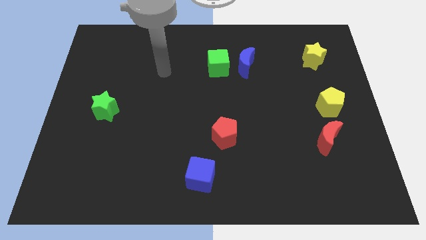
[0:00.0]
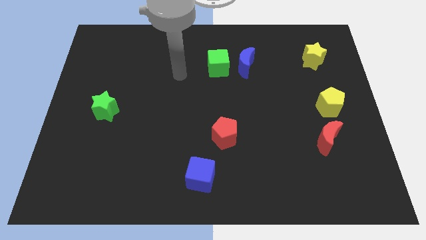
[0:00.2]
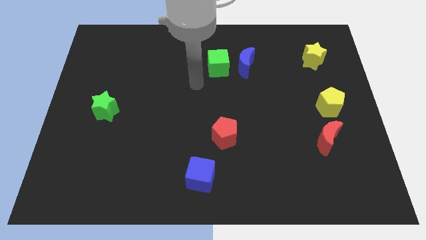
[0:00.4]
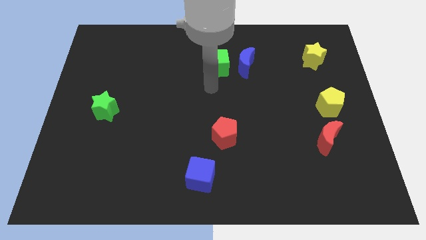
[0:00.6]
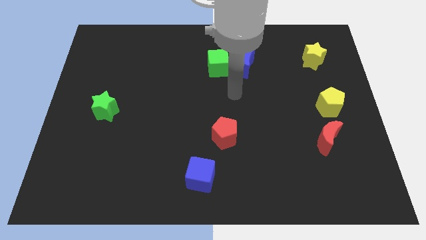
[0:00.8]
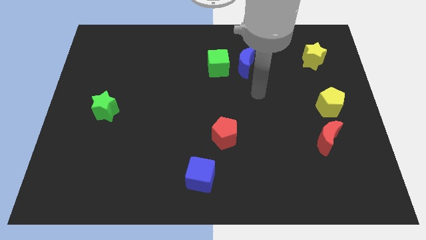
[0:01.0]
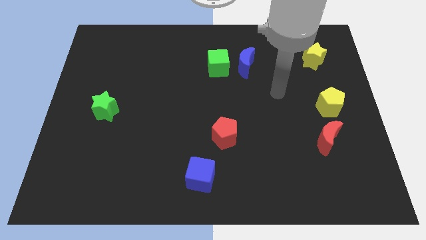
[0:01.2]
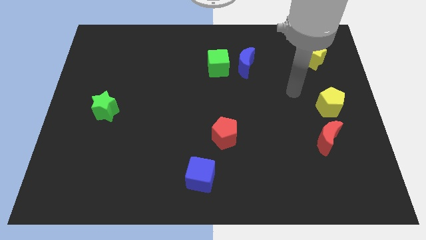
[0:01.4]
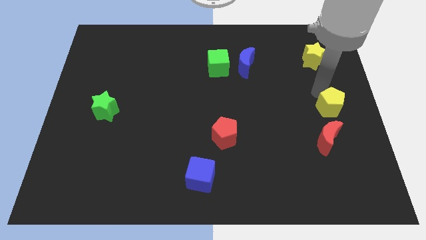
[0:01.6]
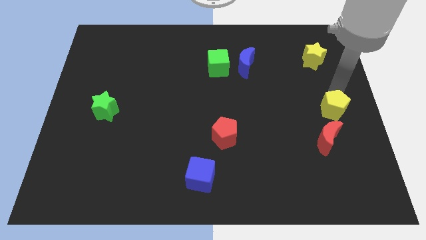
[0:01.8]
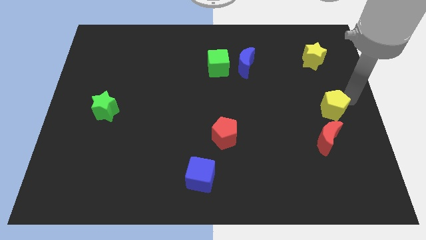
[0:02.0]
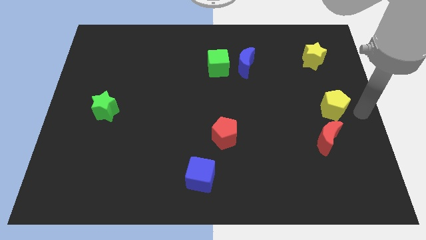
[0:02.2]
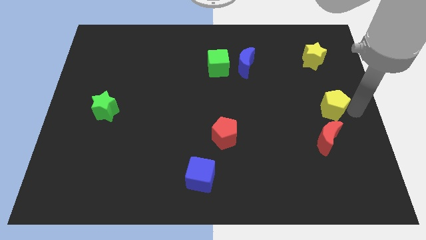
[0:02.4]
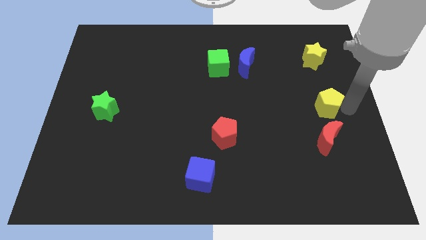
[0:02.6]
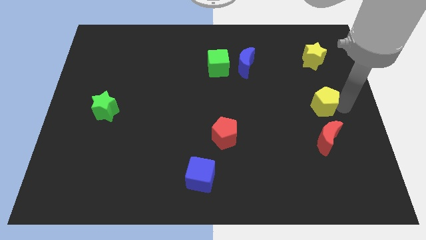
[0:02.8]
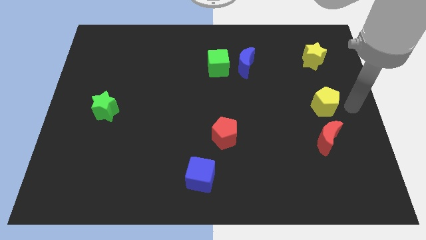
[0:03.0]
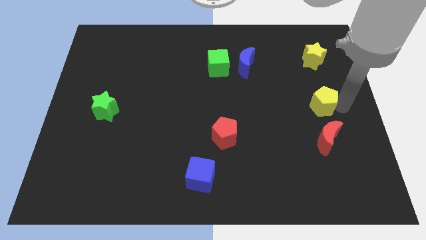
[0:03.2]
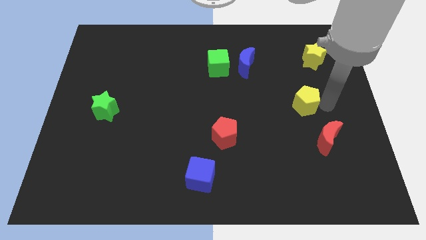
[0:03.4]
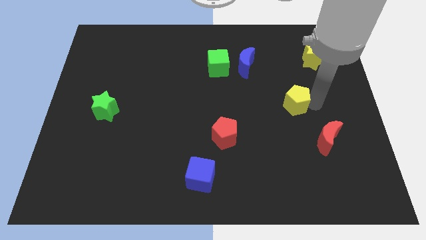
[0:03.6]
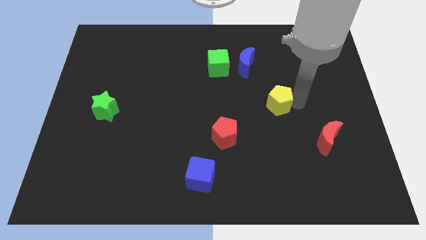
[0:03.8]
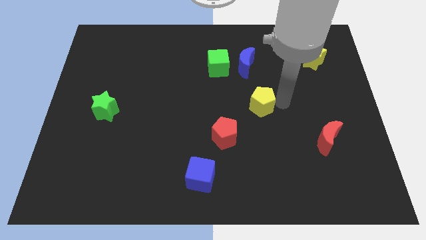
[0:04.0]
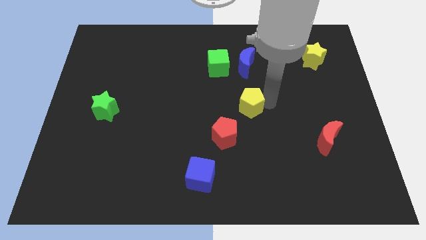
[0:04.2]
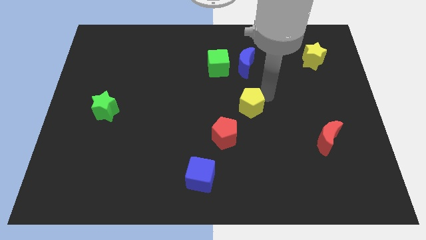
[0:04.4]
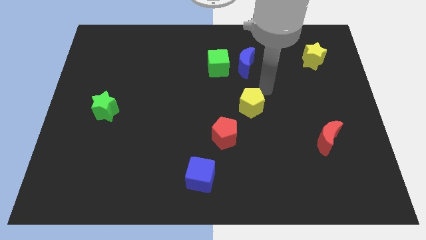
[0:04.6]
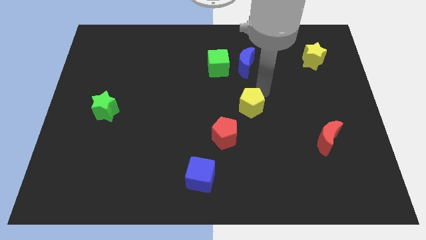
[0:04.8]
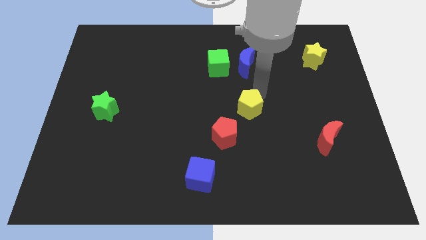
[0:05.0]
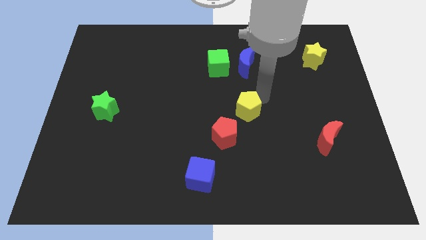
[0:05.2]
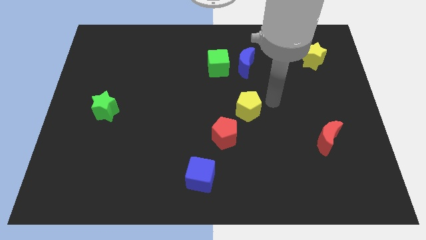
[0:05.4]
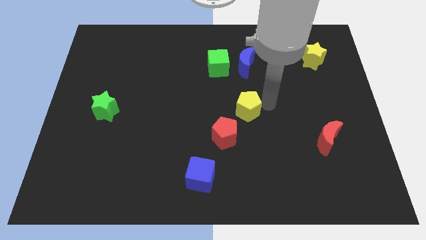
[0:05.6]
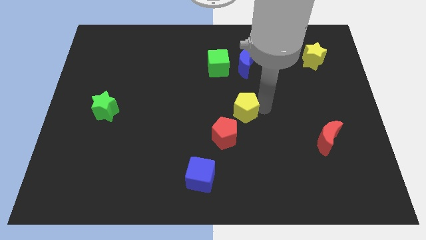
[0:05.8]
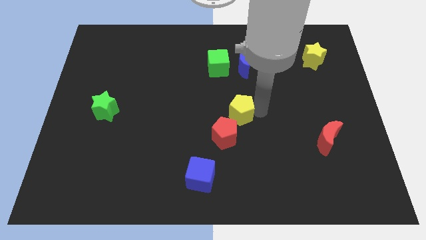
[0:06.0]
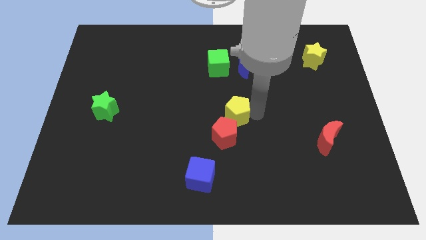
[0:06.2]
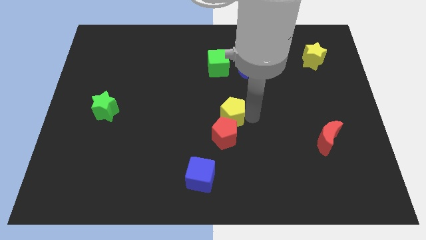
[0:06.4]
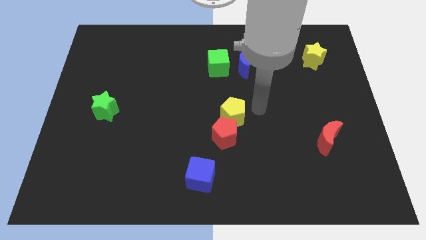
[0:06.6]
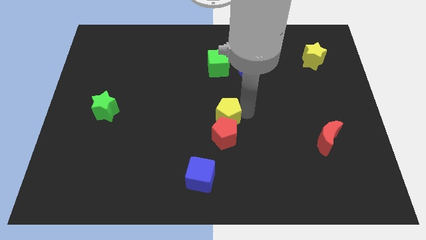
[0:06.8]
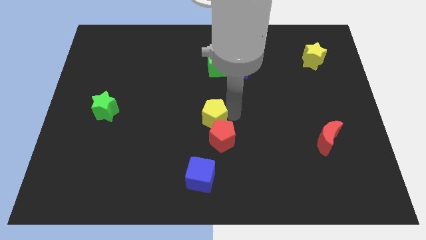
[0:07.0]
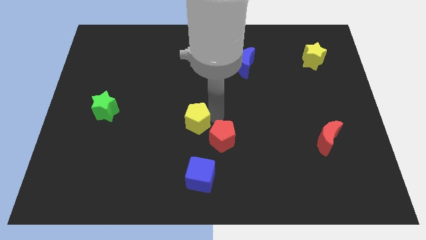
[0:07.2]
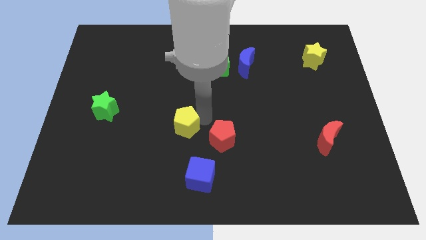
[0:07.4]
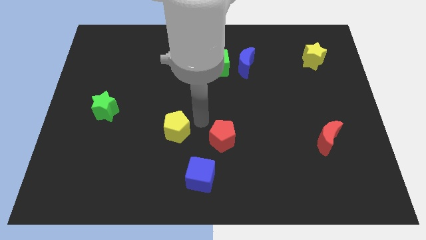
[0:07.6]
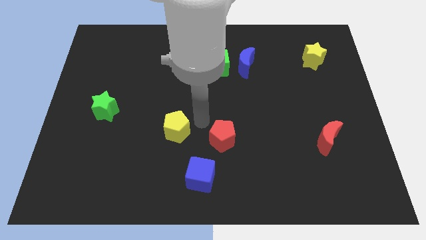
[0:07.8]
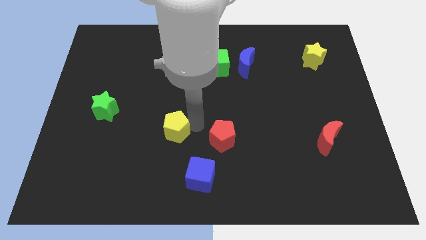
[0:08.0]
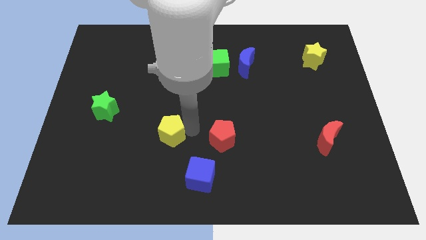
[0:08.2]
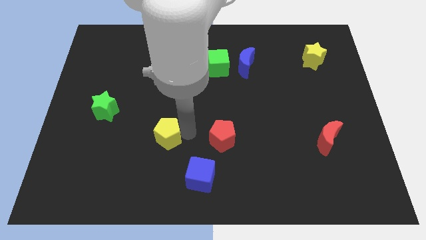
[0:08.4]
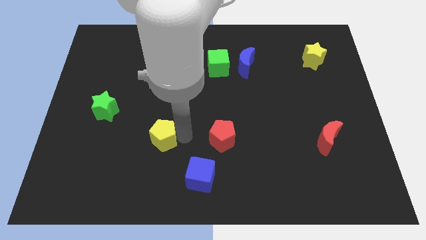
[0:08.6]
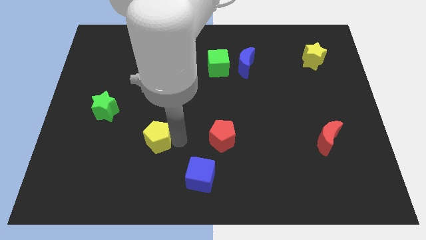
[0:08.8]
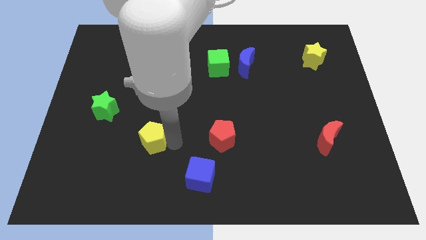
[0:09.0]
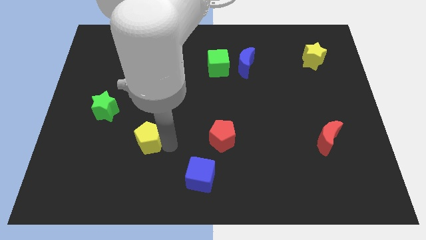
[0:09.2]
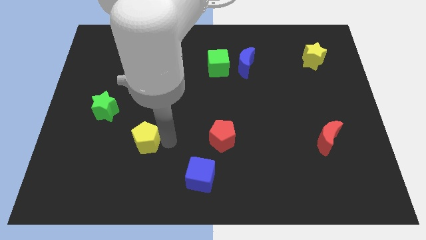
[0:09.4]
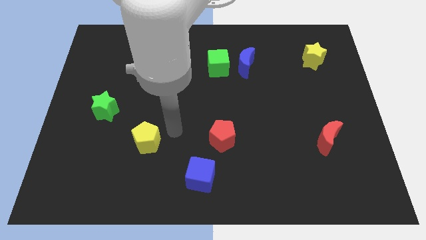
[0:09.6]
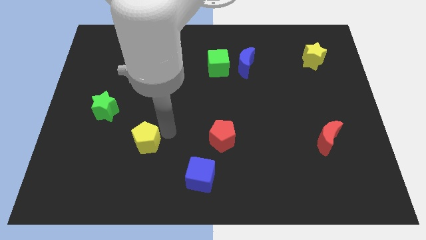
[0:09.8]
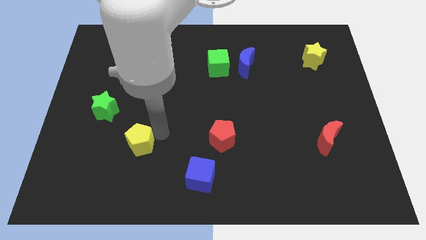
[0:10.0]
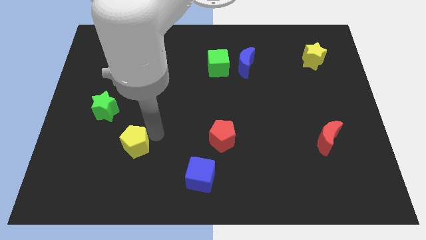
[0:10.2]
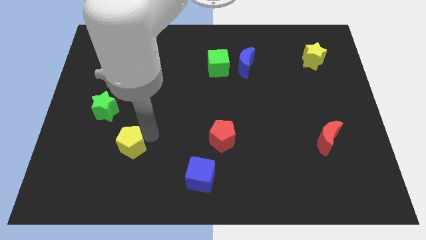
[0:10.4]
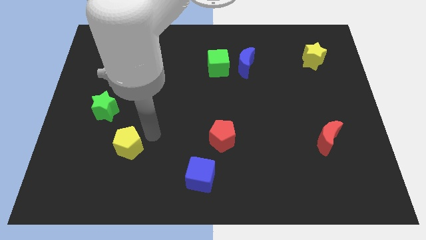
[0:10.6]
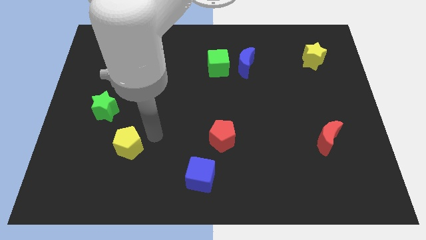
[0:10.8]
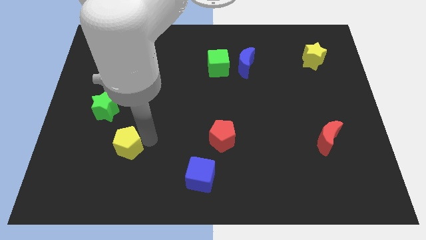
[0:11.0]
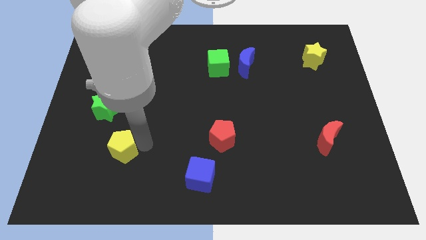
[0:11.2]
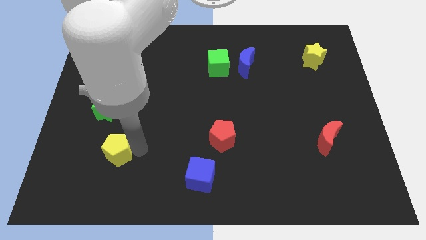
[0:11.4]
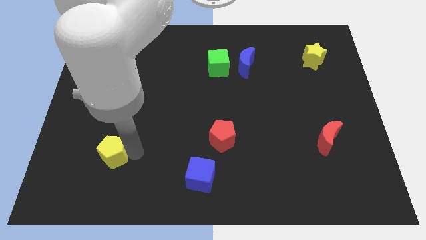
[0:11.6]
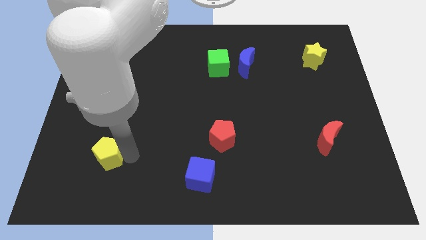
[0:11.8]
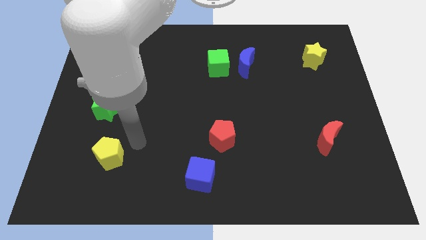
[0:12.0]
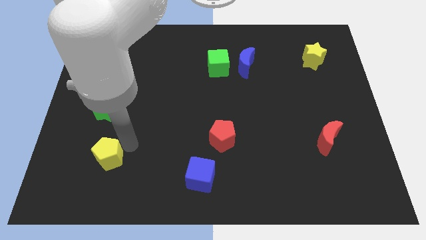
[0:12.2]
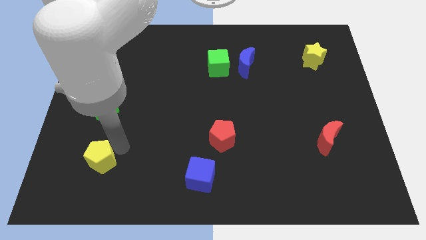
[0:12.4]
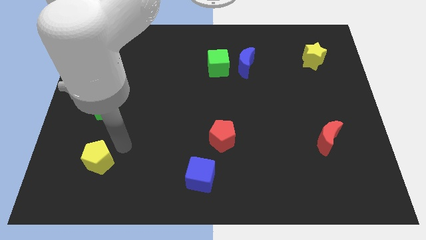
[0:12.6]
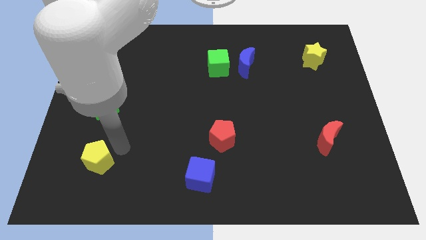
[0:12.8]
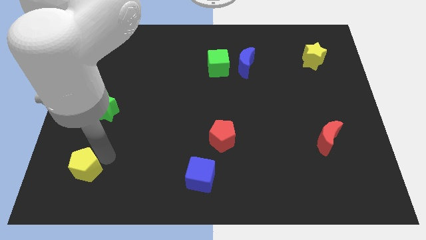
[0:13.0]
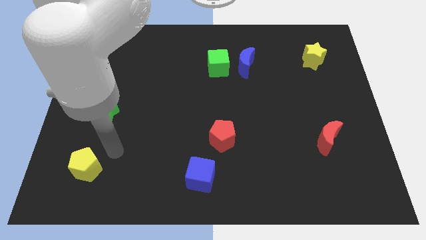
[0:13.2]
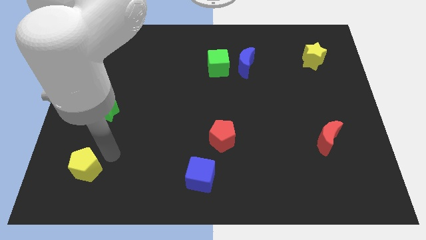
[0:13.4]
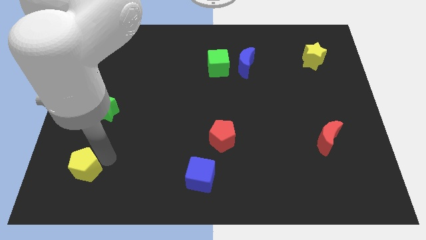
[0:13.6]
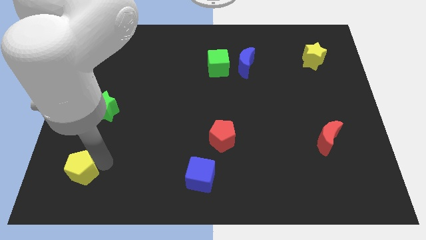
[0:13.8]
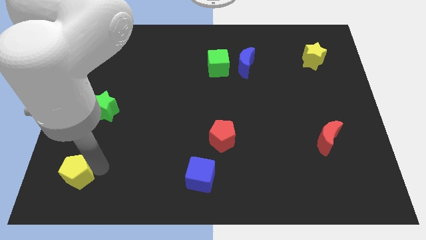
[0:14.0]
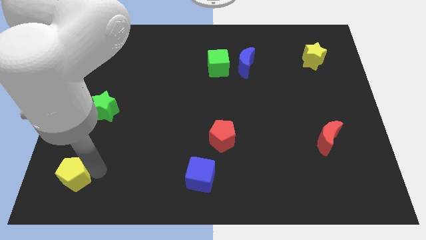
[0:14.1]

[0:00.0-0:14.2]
push the yellow pentagon to the lower left corner

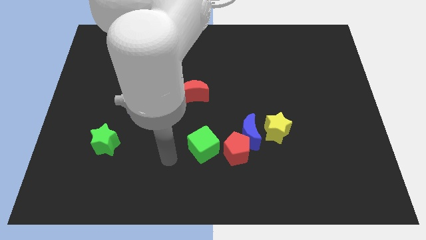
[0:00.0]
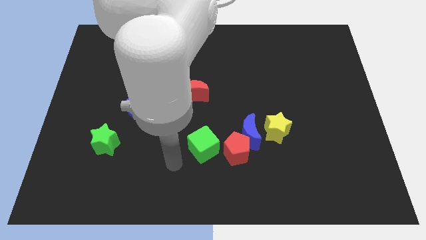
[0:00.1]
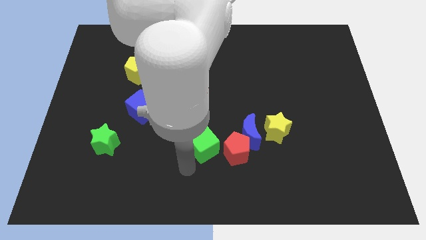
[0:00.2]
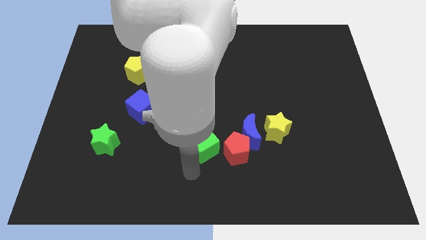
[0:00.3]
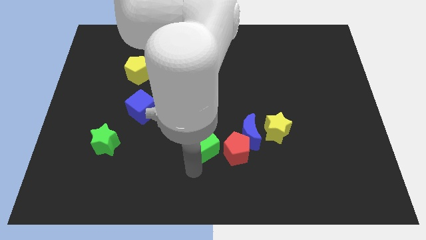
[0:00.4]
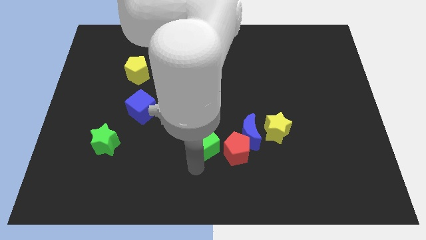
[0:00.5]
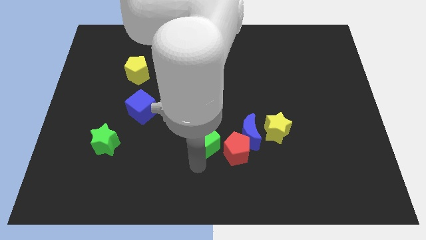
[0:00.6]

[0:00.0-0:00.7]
push the green cube to the center
